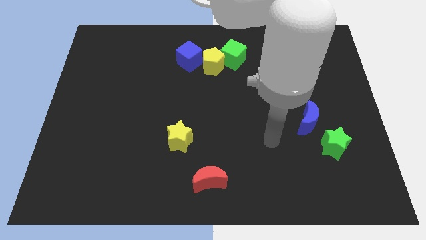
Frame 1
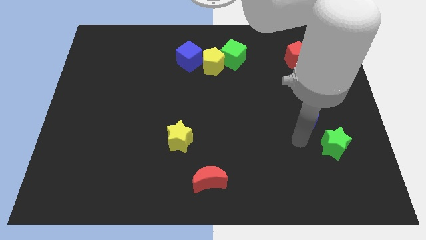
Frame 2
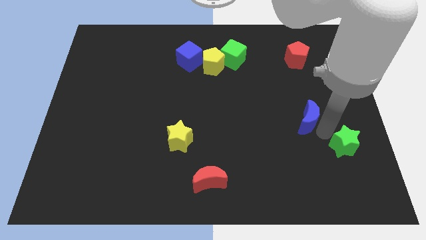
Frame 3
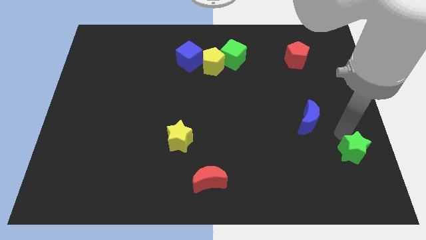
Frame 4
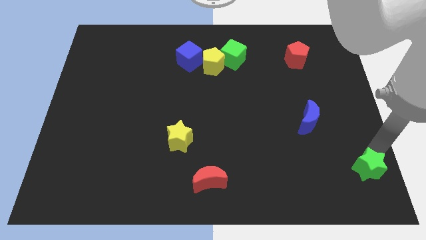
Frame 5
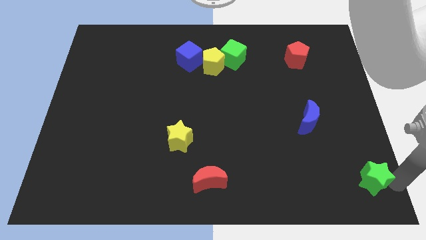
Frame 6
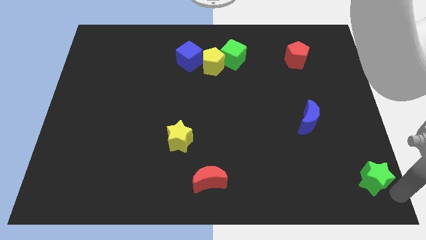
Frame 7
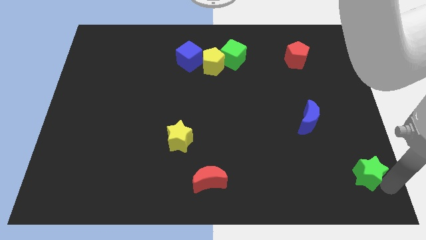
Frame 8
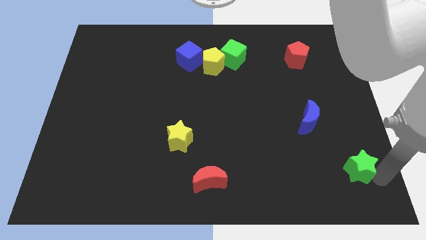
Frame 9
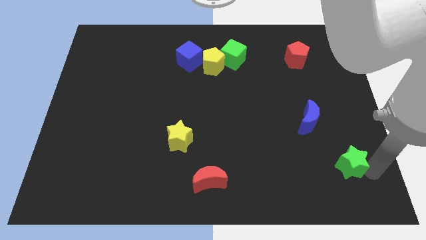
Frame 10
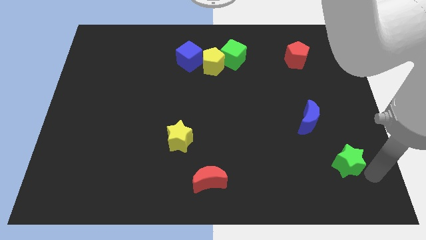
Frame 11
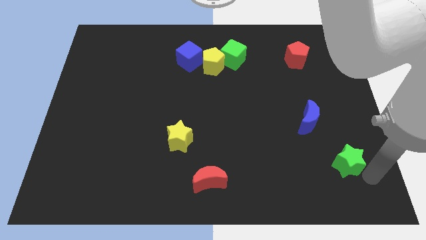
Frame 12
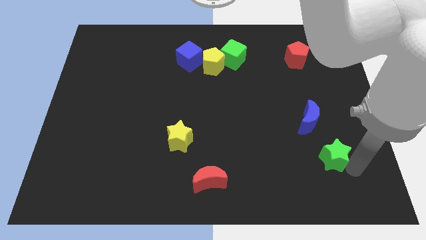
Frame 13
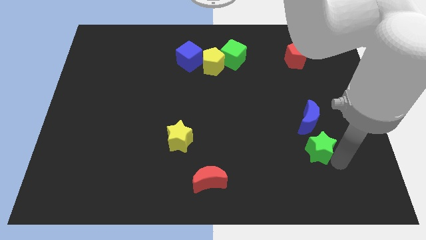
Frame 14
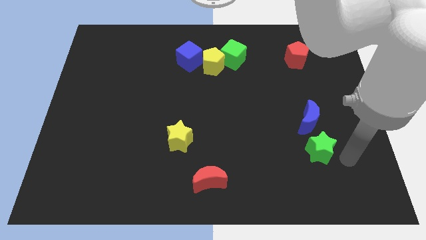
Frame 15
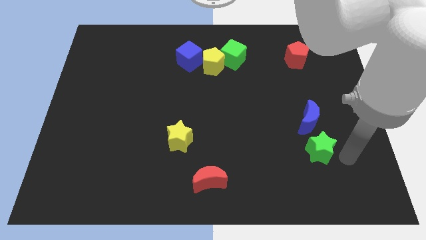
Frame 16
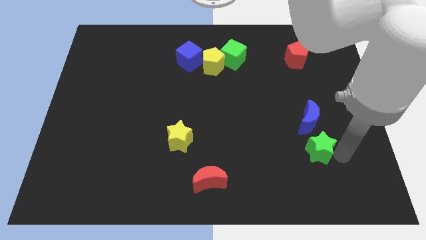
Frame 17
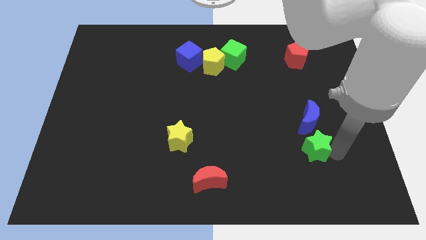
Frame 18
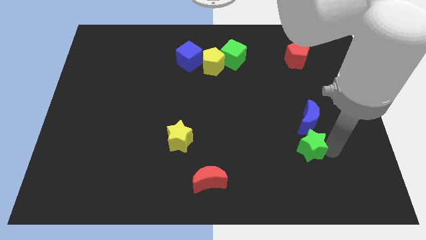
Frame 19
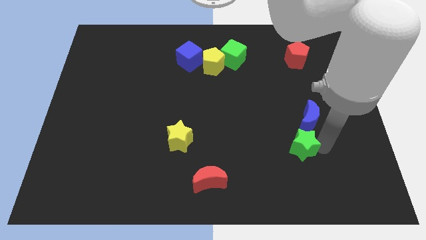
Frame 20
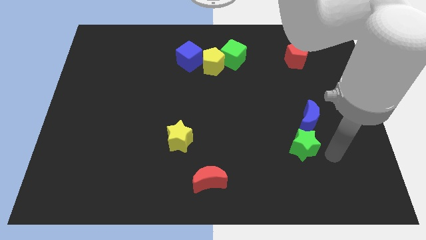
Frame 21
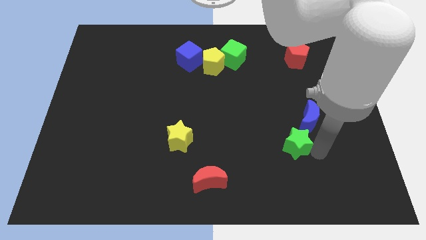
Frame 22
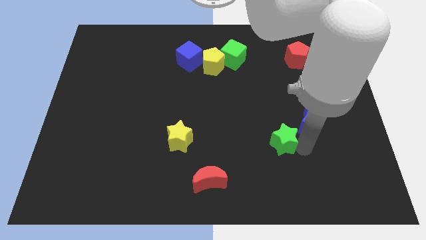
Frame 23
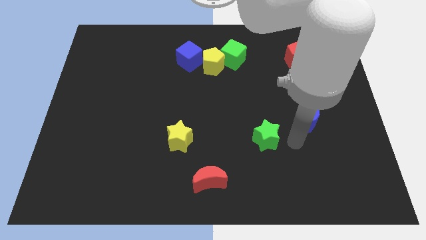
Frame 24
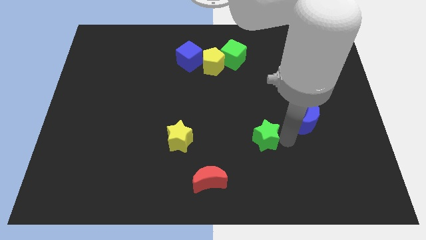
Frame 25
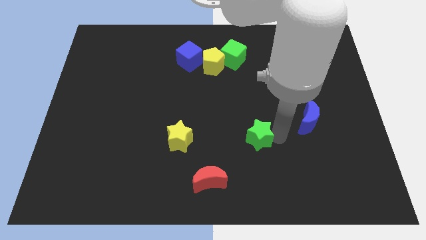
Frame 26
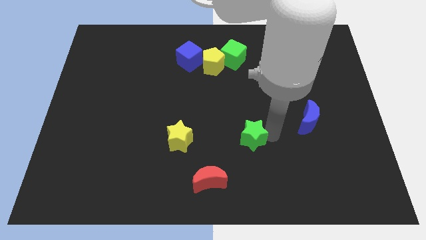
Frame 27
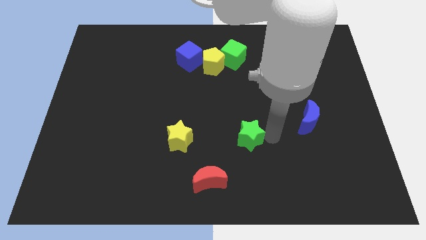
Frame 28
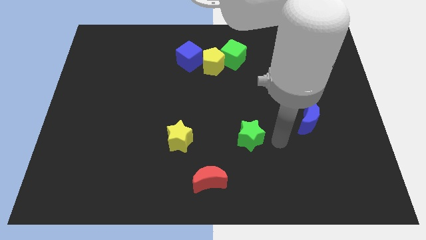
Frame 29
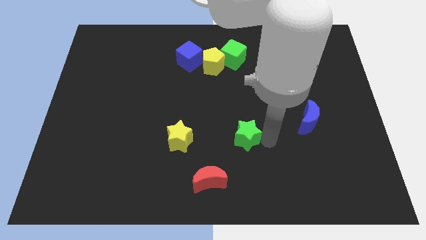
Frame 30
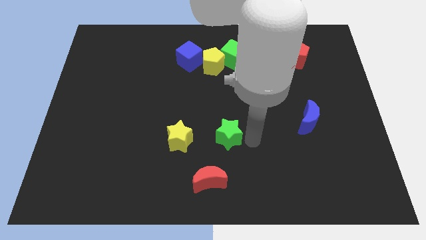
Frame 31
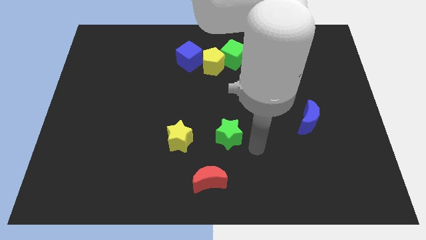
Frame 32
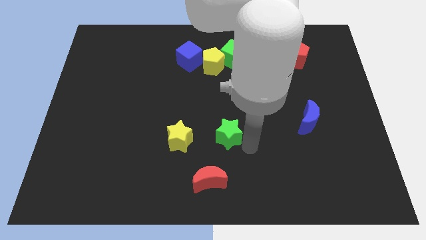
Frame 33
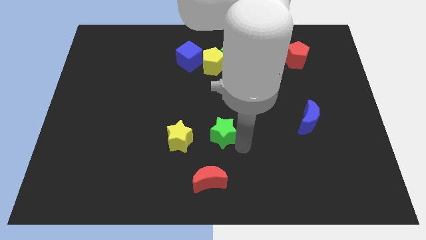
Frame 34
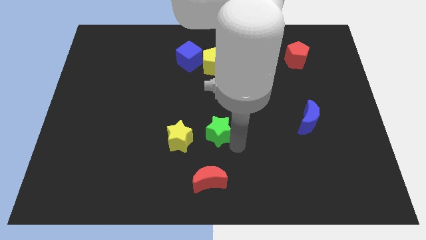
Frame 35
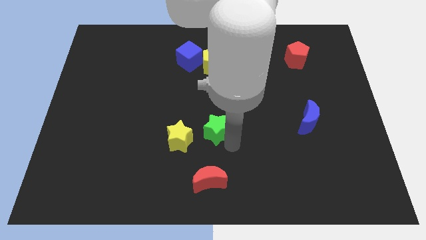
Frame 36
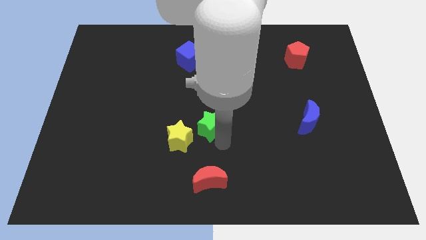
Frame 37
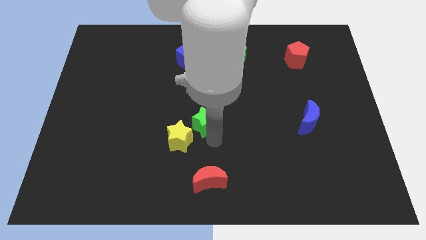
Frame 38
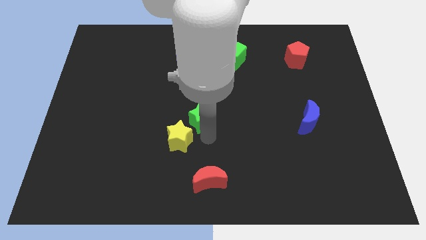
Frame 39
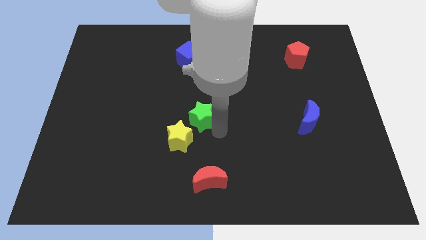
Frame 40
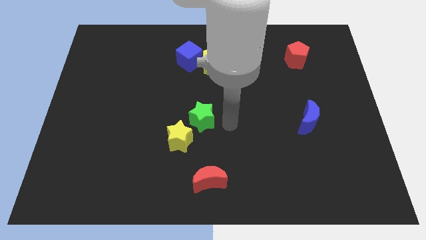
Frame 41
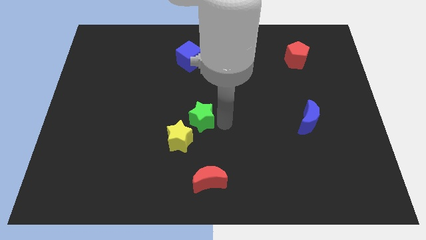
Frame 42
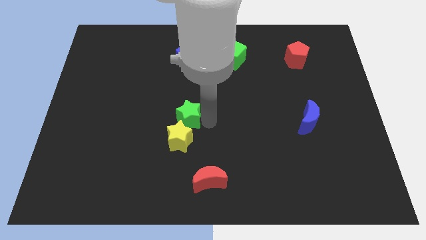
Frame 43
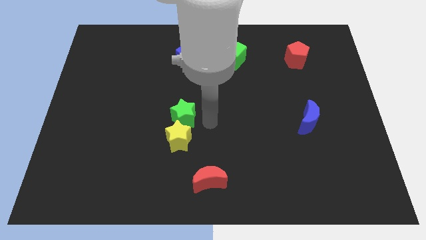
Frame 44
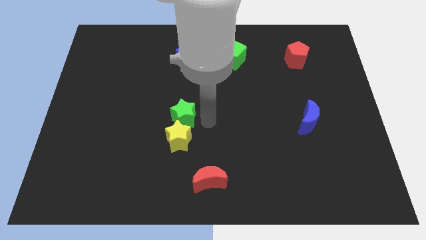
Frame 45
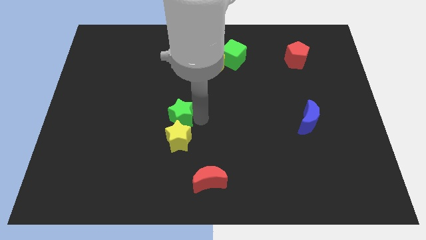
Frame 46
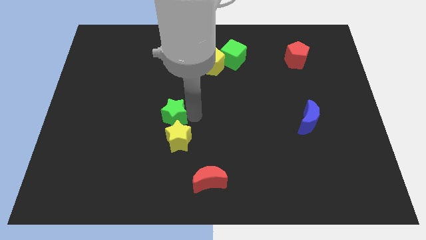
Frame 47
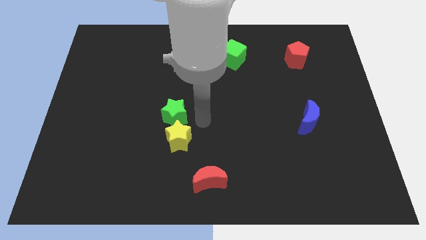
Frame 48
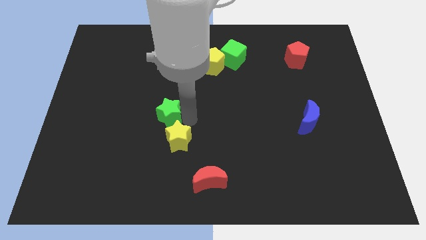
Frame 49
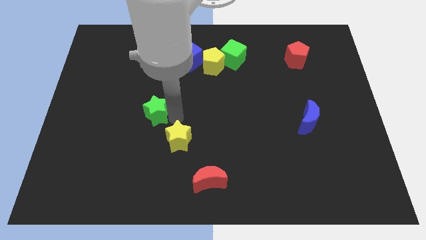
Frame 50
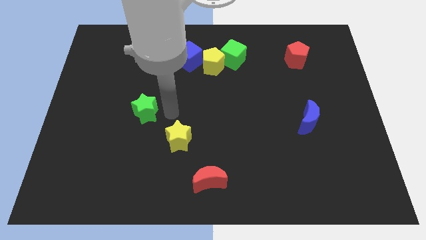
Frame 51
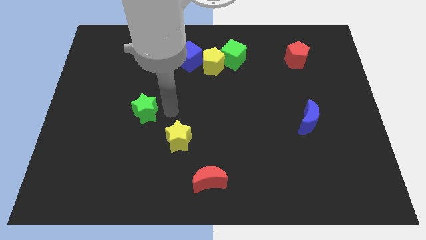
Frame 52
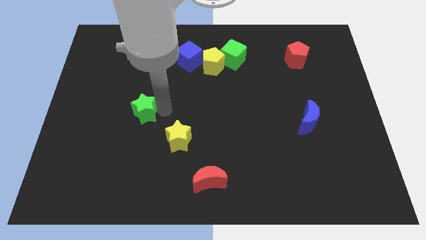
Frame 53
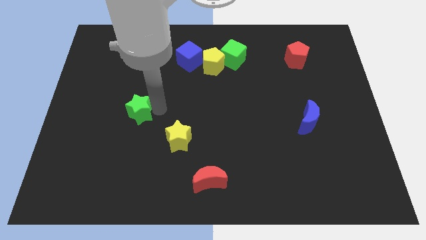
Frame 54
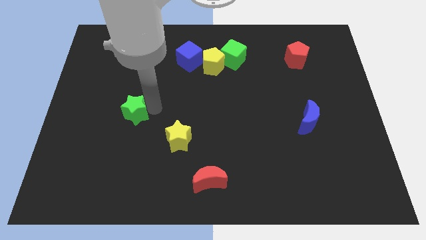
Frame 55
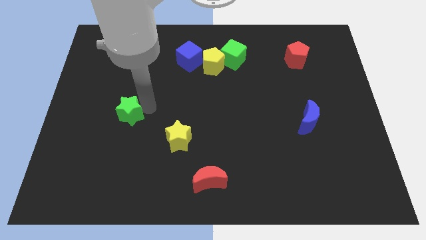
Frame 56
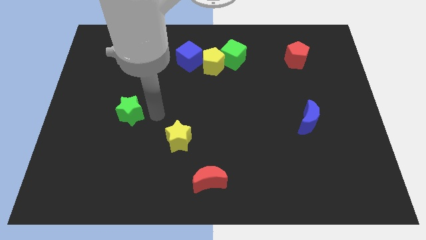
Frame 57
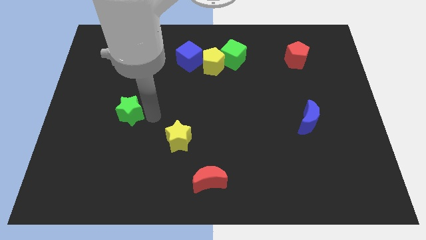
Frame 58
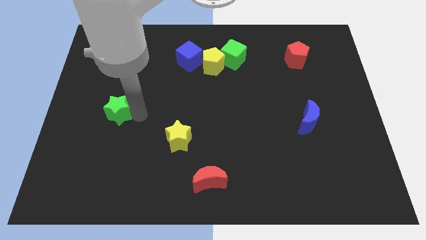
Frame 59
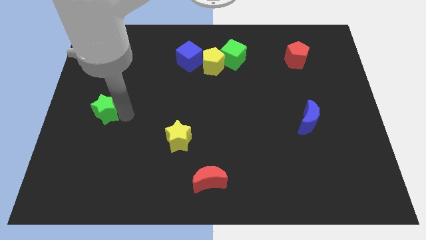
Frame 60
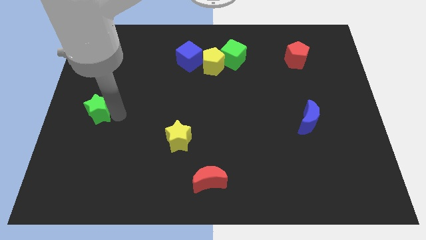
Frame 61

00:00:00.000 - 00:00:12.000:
put the green star to the left side of the board
